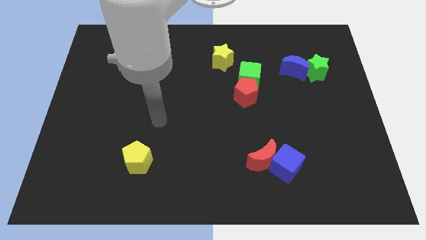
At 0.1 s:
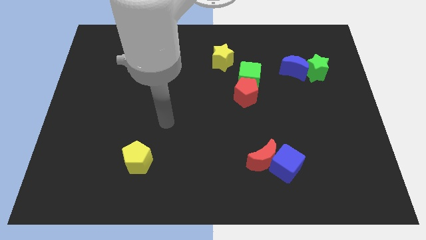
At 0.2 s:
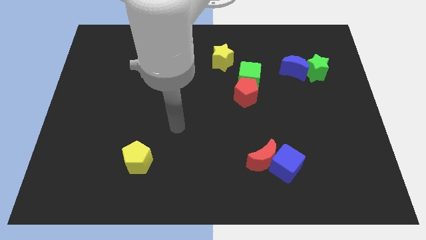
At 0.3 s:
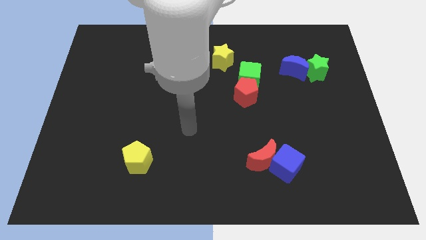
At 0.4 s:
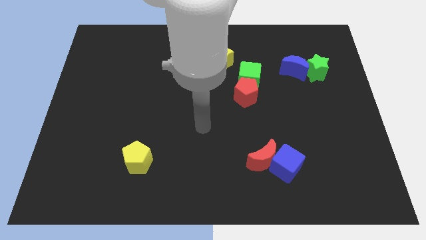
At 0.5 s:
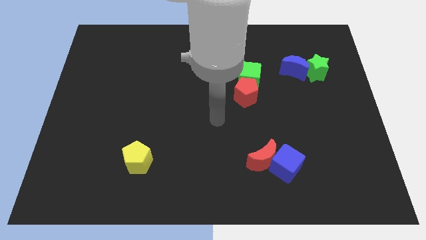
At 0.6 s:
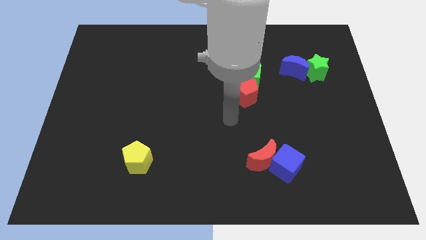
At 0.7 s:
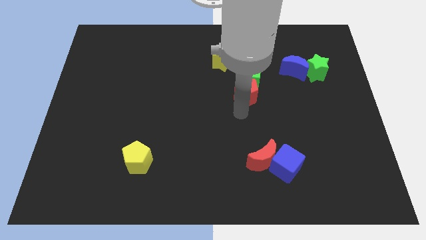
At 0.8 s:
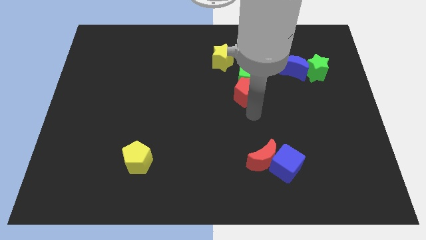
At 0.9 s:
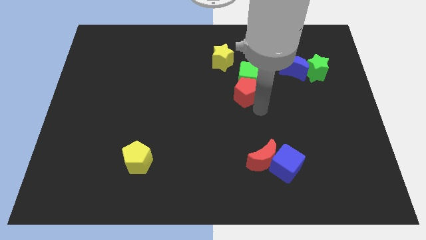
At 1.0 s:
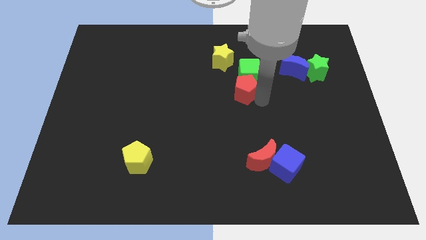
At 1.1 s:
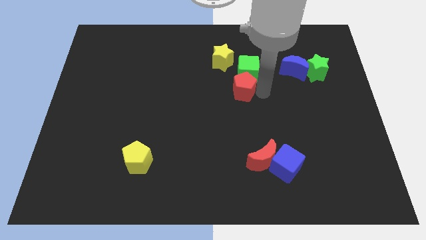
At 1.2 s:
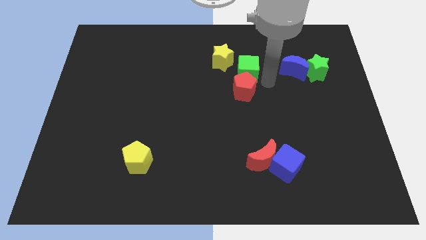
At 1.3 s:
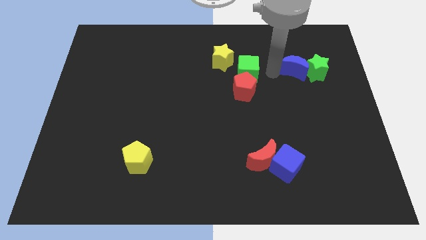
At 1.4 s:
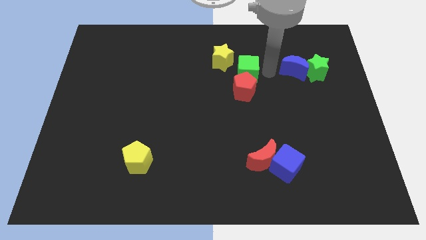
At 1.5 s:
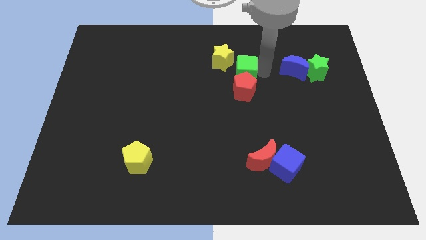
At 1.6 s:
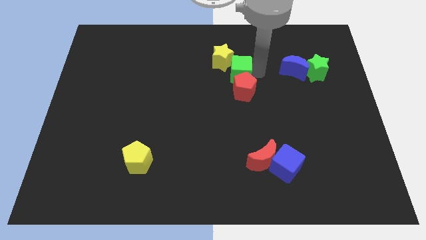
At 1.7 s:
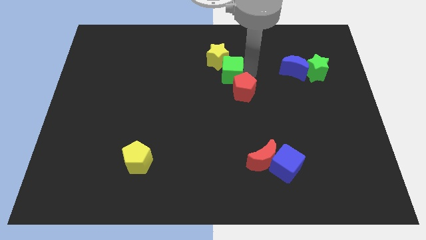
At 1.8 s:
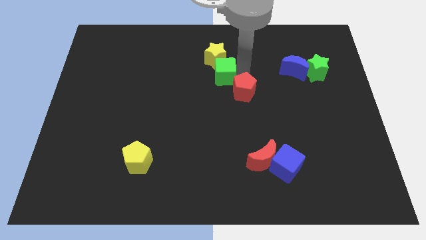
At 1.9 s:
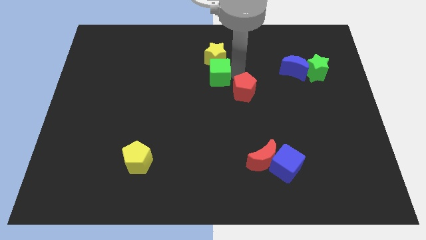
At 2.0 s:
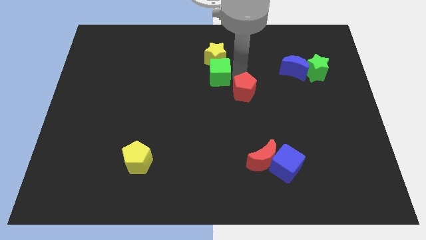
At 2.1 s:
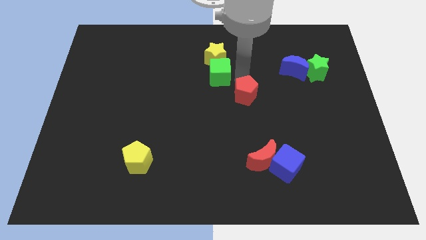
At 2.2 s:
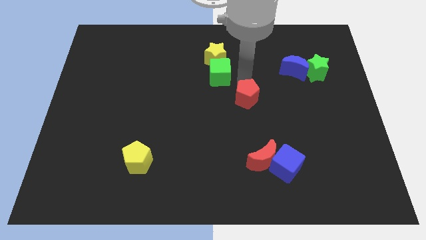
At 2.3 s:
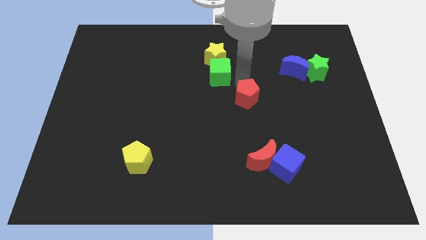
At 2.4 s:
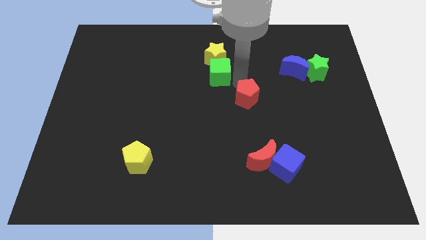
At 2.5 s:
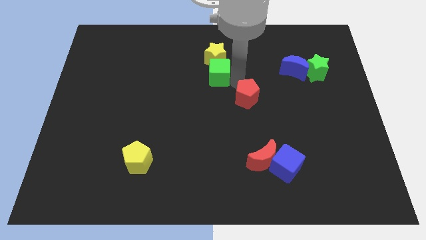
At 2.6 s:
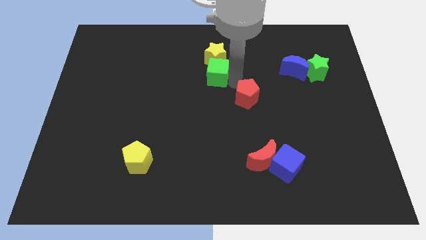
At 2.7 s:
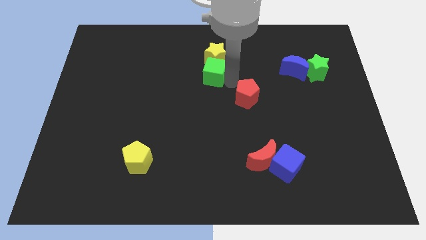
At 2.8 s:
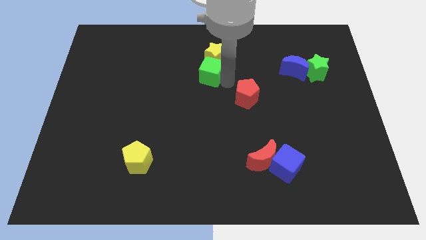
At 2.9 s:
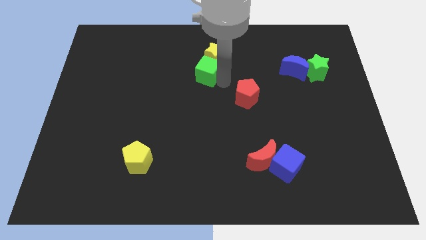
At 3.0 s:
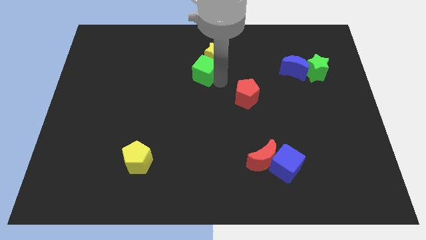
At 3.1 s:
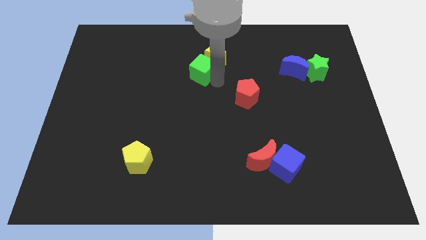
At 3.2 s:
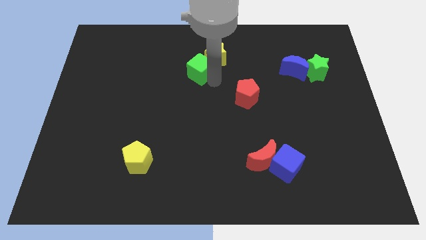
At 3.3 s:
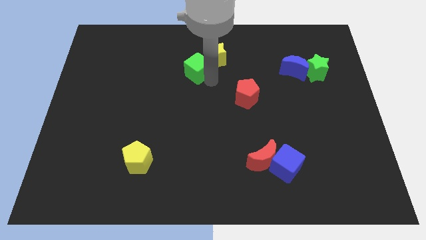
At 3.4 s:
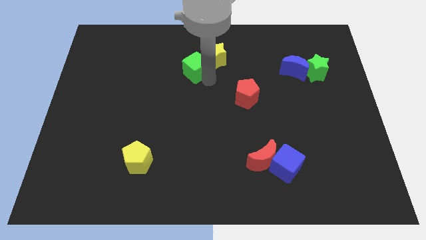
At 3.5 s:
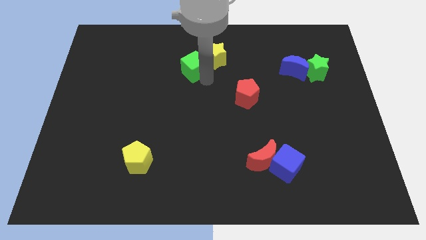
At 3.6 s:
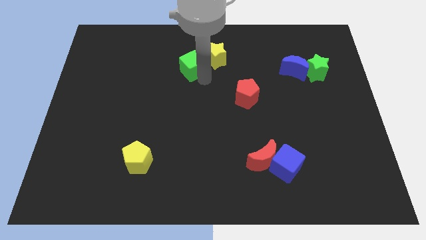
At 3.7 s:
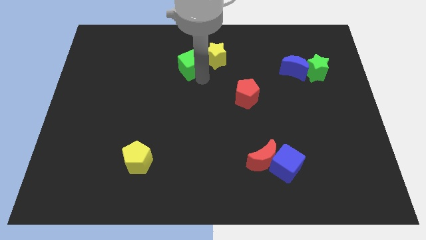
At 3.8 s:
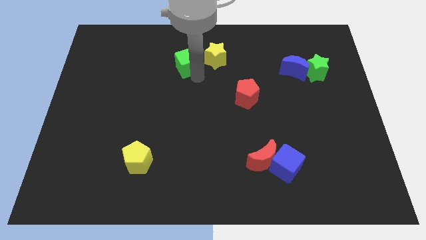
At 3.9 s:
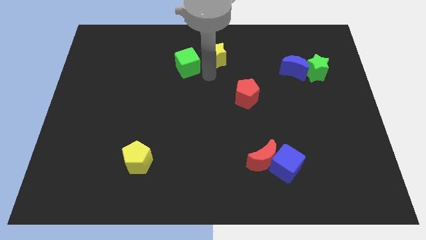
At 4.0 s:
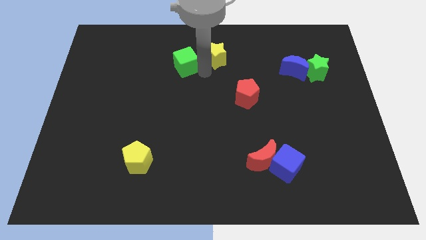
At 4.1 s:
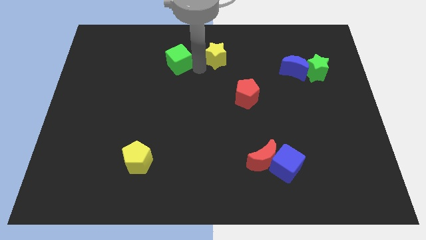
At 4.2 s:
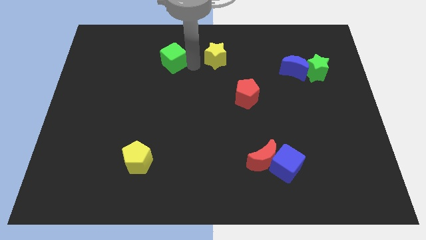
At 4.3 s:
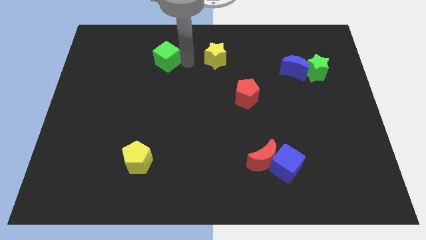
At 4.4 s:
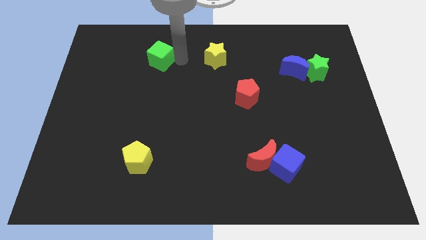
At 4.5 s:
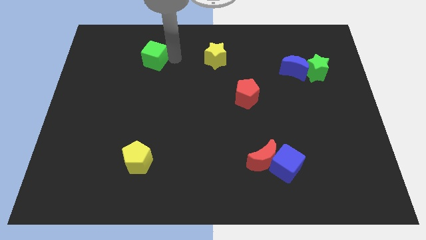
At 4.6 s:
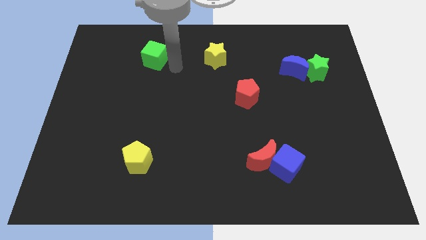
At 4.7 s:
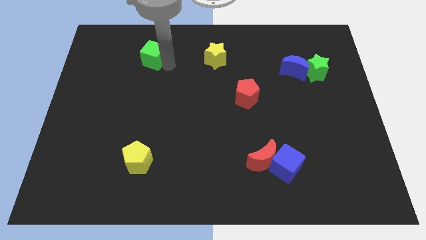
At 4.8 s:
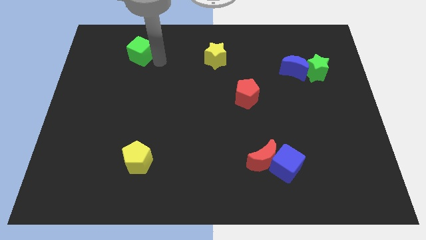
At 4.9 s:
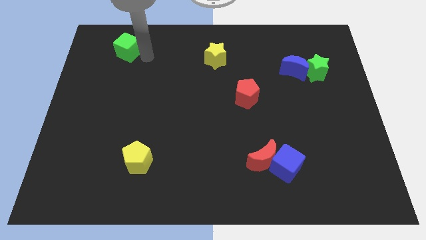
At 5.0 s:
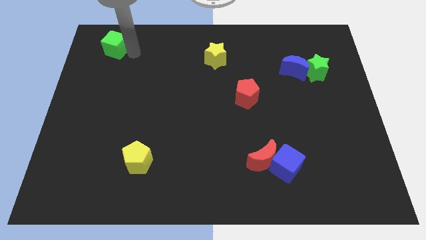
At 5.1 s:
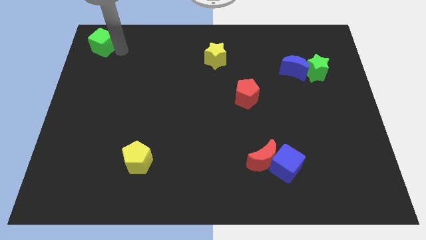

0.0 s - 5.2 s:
move the green cube to the top left corner

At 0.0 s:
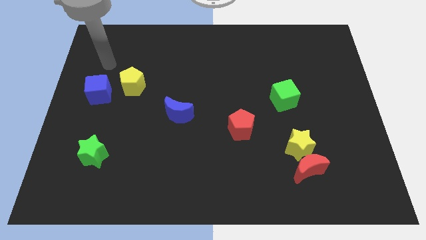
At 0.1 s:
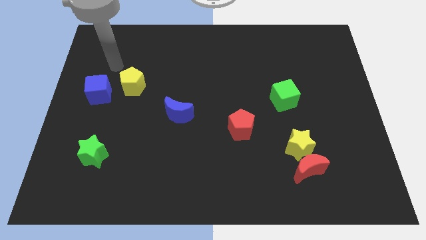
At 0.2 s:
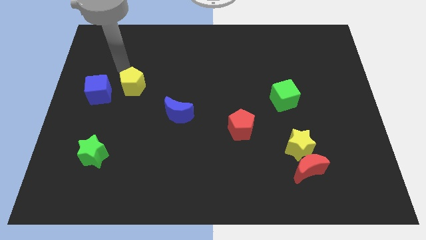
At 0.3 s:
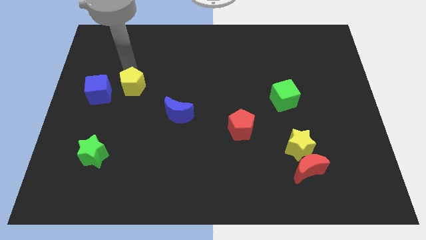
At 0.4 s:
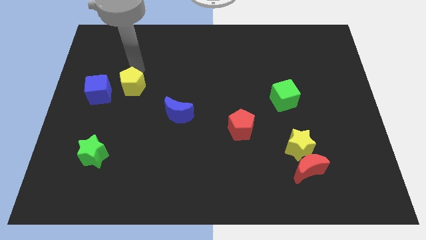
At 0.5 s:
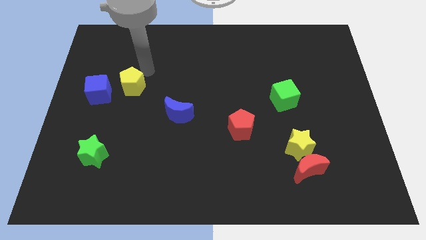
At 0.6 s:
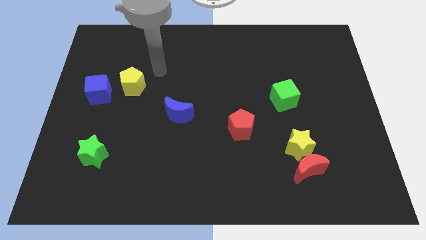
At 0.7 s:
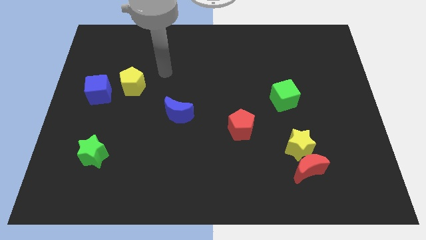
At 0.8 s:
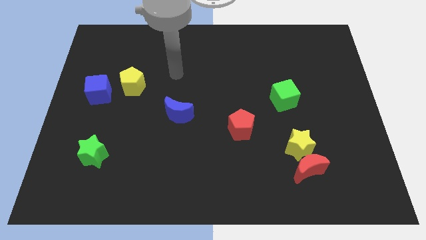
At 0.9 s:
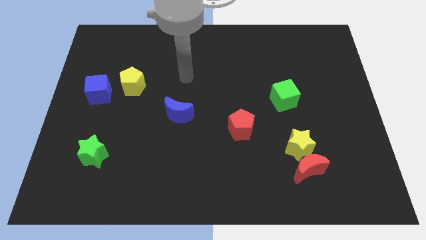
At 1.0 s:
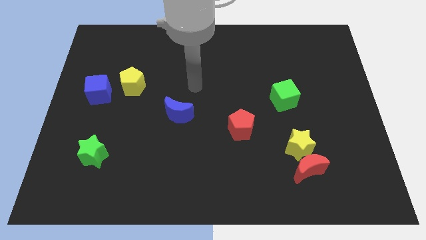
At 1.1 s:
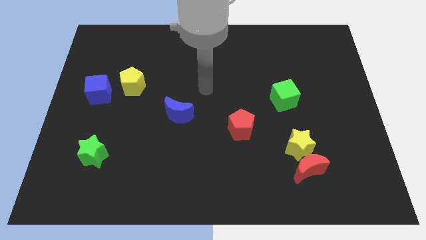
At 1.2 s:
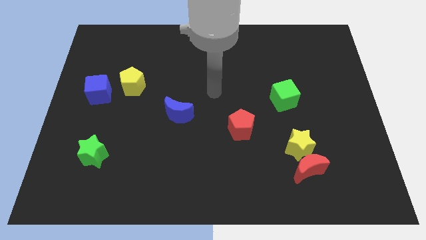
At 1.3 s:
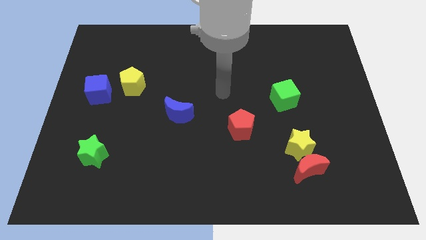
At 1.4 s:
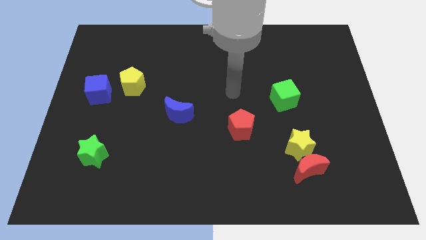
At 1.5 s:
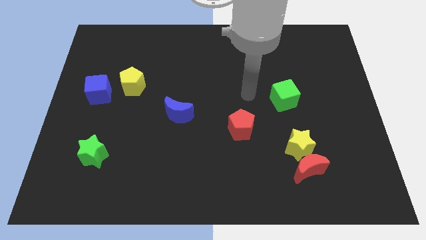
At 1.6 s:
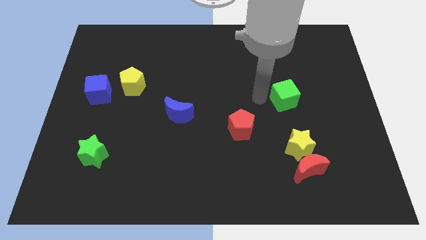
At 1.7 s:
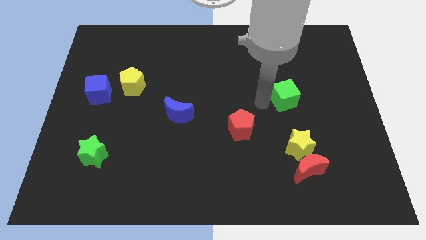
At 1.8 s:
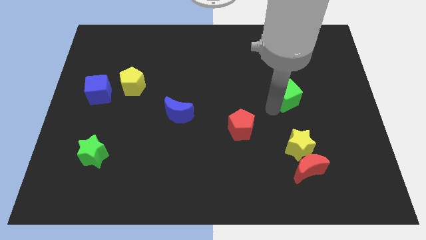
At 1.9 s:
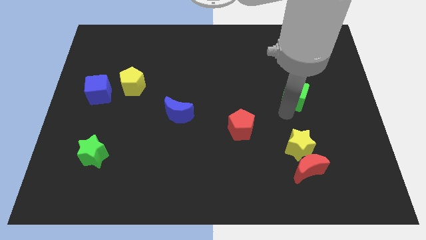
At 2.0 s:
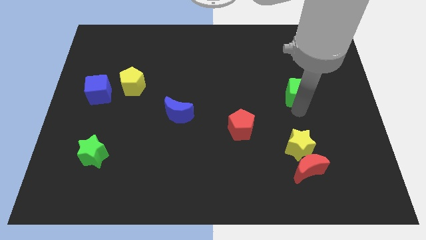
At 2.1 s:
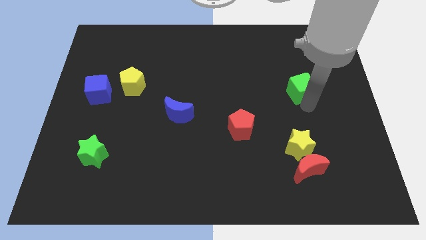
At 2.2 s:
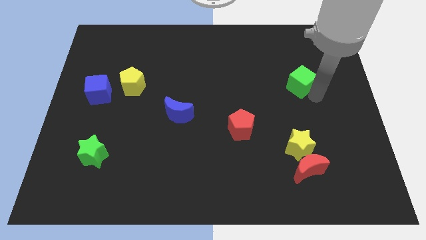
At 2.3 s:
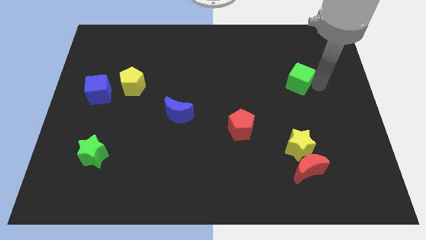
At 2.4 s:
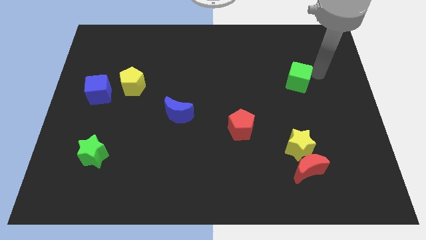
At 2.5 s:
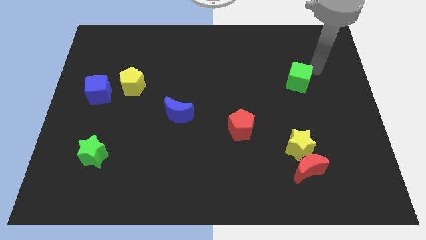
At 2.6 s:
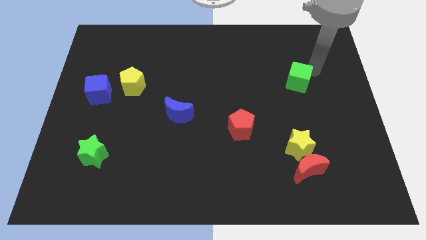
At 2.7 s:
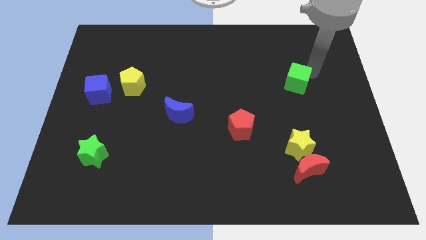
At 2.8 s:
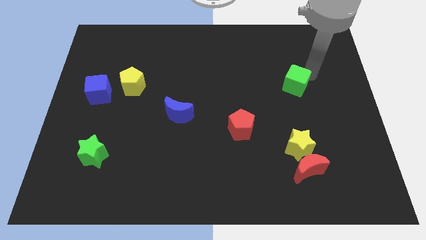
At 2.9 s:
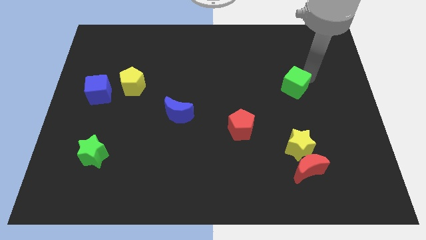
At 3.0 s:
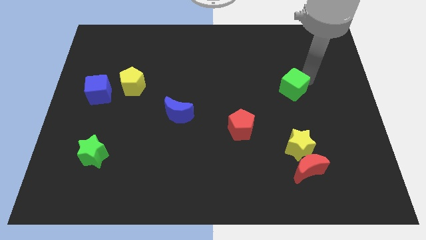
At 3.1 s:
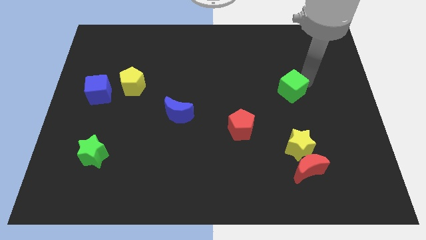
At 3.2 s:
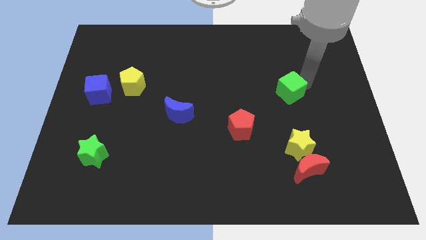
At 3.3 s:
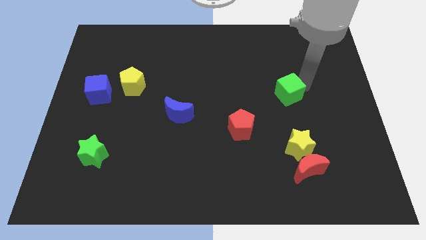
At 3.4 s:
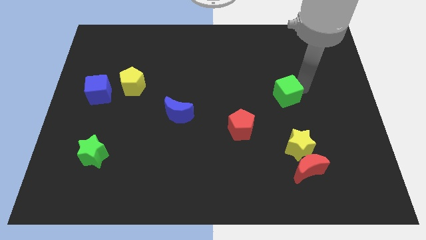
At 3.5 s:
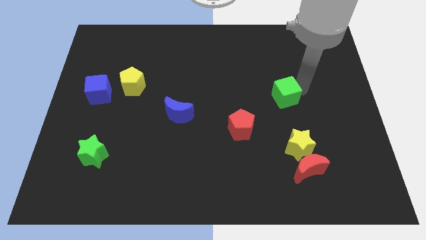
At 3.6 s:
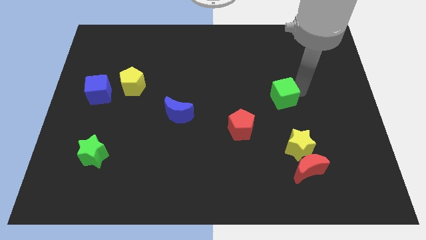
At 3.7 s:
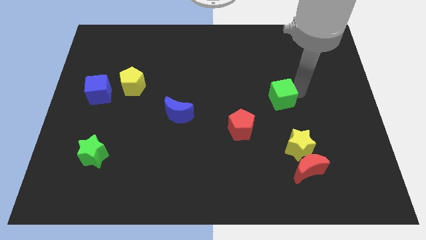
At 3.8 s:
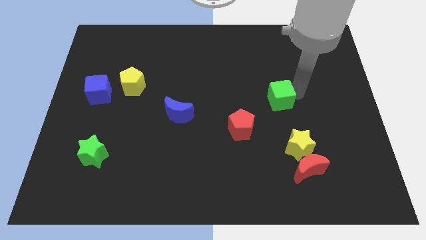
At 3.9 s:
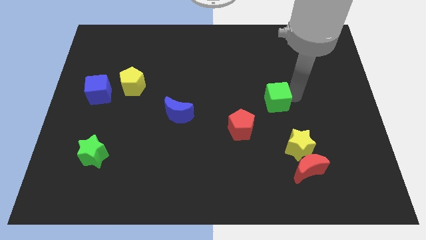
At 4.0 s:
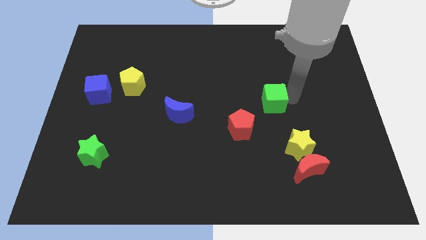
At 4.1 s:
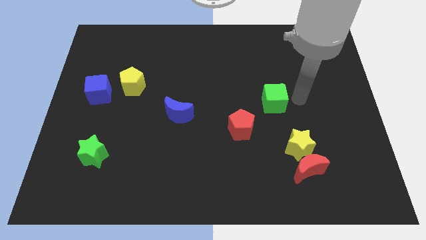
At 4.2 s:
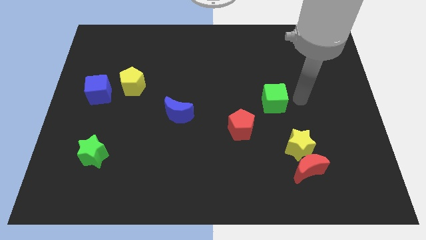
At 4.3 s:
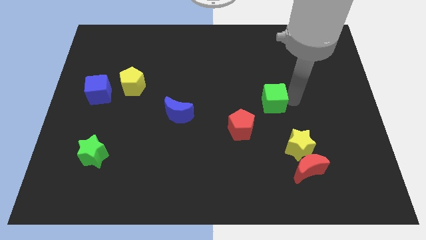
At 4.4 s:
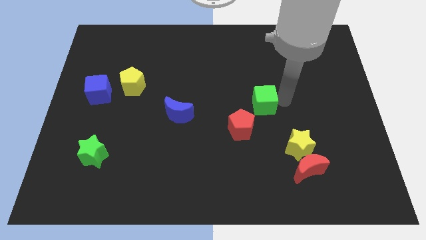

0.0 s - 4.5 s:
slide the green cube to the center of the board
